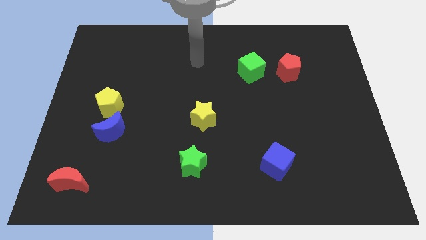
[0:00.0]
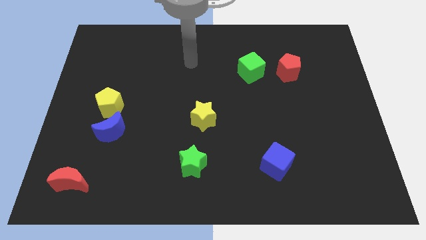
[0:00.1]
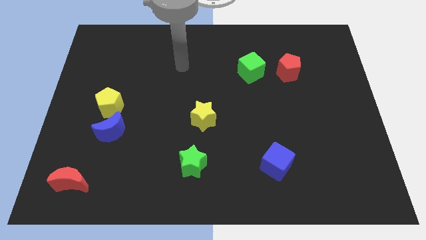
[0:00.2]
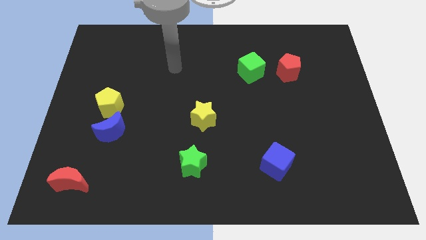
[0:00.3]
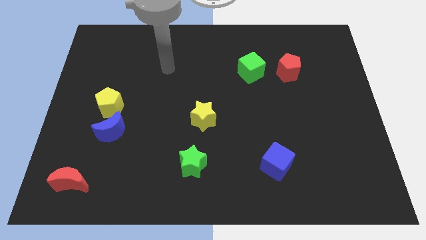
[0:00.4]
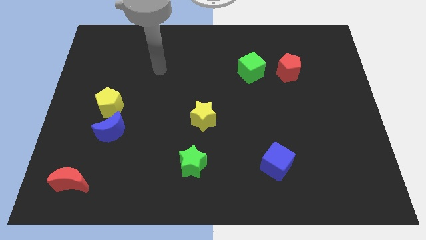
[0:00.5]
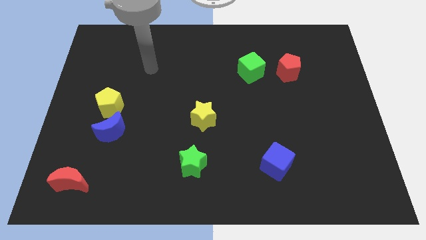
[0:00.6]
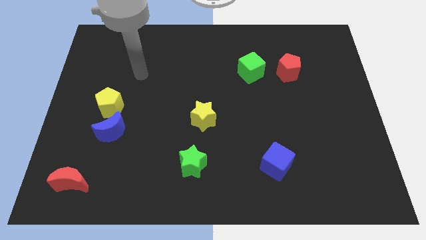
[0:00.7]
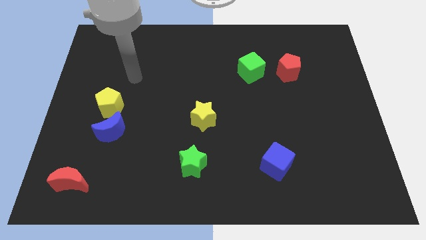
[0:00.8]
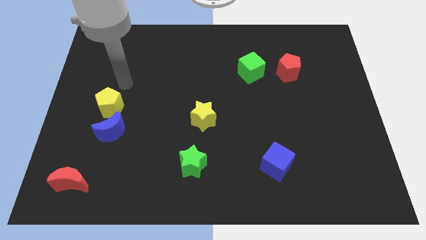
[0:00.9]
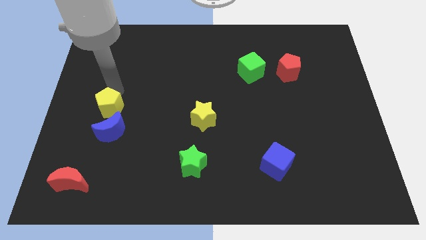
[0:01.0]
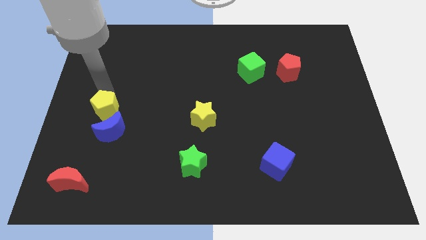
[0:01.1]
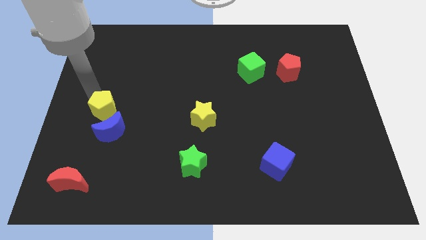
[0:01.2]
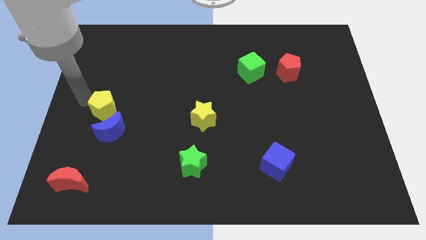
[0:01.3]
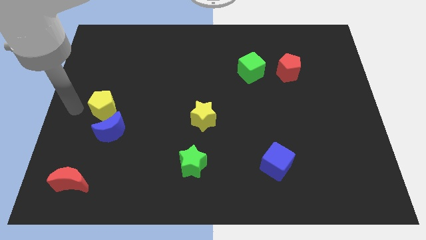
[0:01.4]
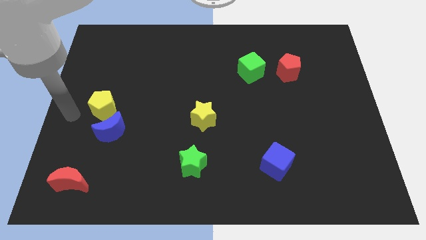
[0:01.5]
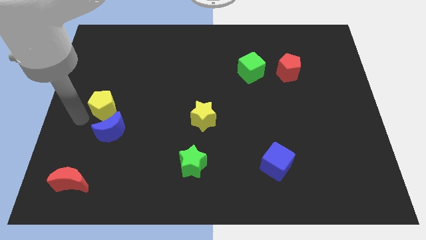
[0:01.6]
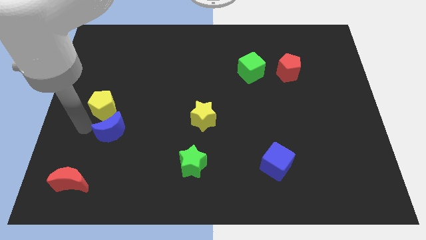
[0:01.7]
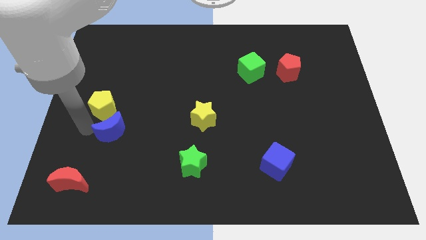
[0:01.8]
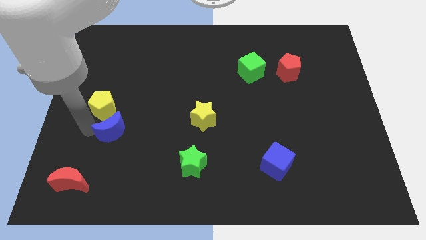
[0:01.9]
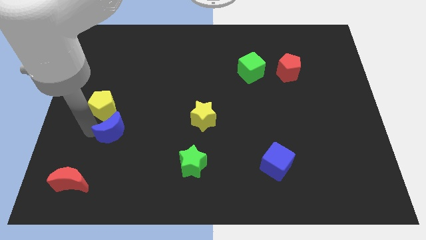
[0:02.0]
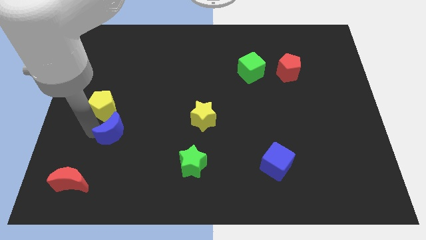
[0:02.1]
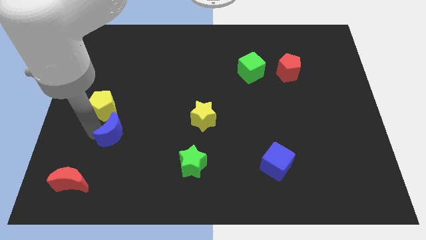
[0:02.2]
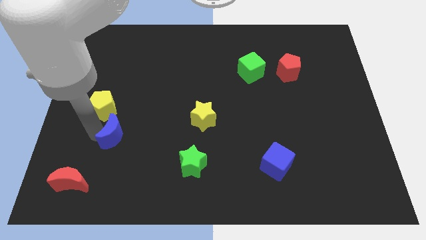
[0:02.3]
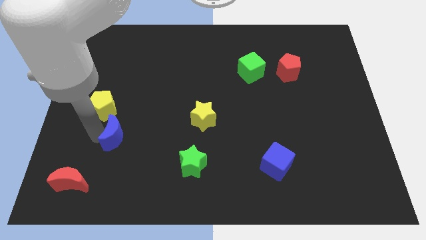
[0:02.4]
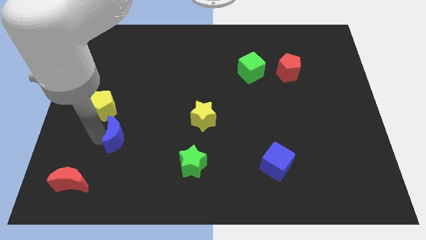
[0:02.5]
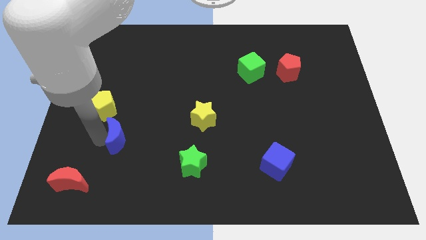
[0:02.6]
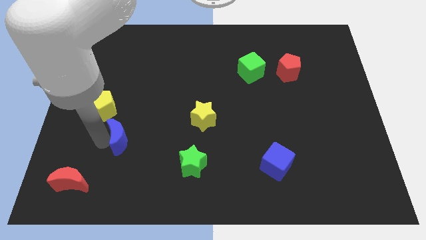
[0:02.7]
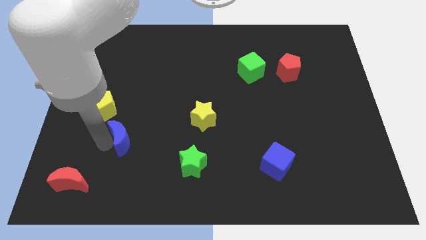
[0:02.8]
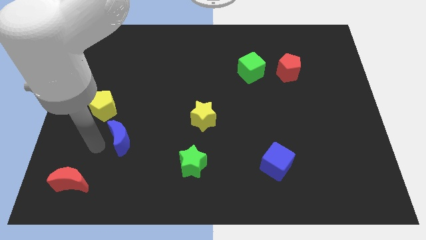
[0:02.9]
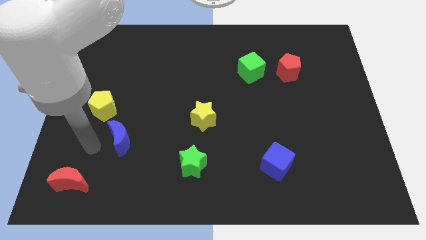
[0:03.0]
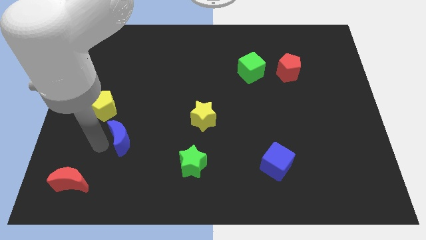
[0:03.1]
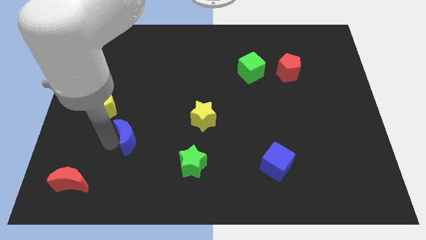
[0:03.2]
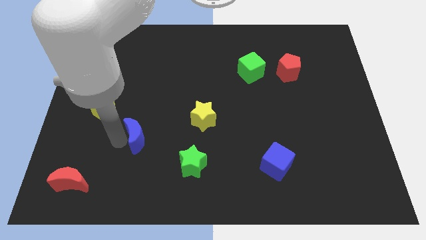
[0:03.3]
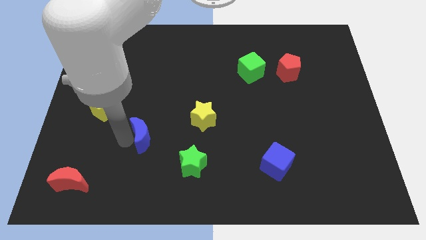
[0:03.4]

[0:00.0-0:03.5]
slide the blue moon right slightly

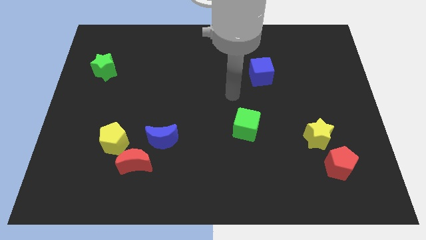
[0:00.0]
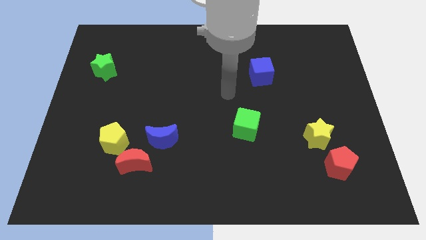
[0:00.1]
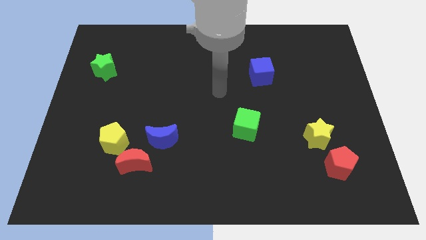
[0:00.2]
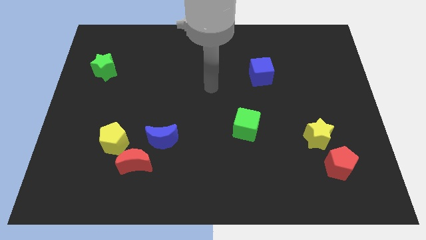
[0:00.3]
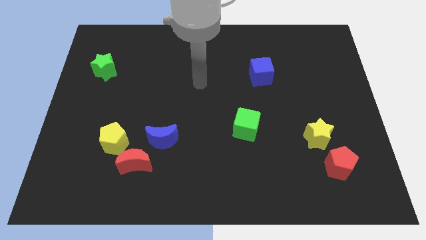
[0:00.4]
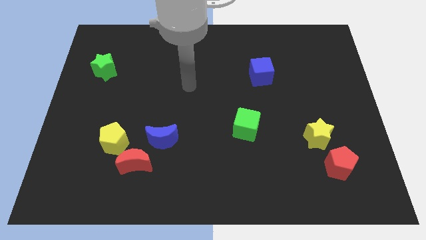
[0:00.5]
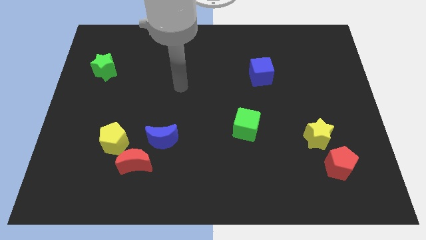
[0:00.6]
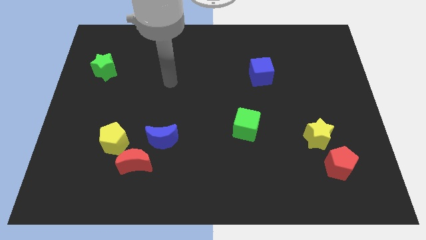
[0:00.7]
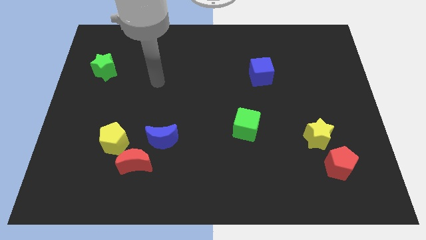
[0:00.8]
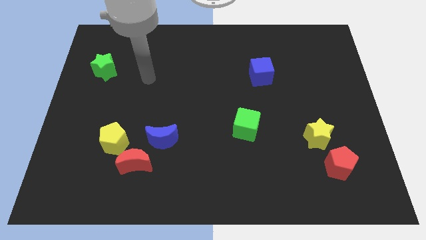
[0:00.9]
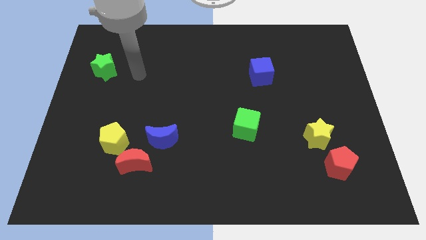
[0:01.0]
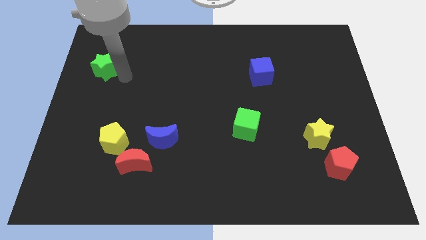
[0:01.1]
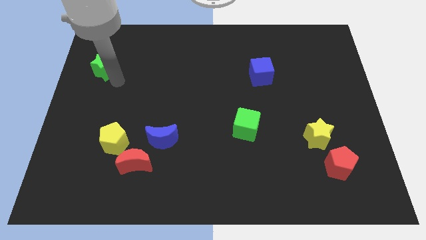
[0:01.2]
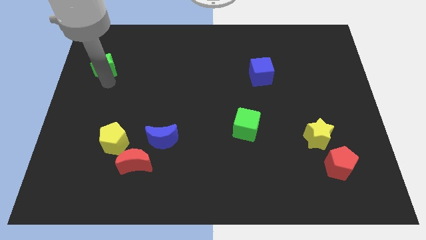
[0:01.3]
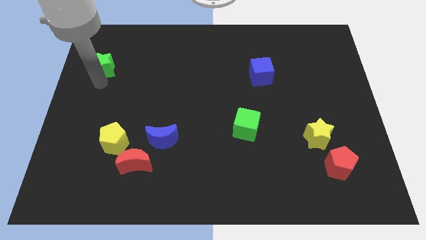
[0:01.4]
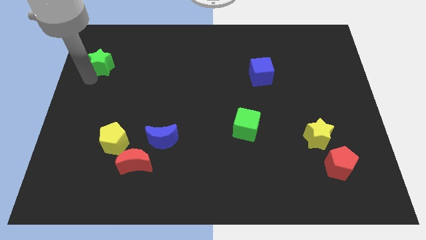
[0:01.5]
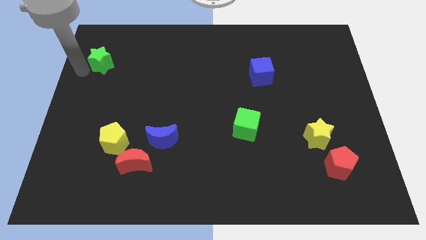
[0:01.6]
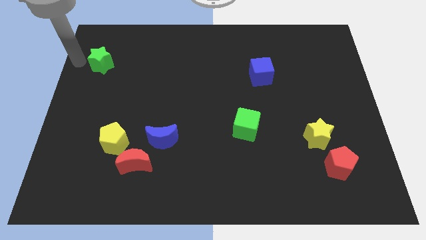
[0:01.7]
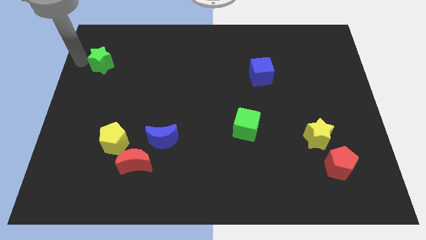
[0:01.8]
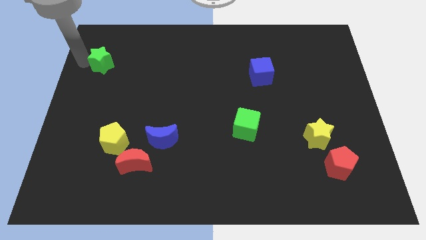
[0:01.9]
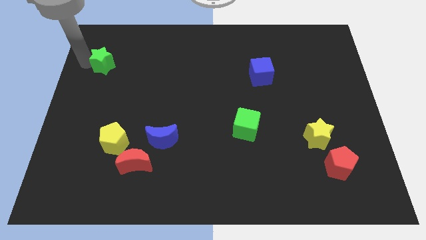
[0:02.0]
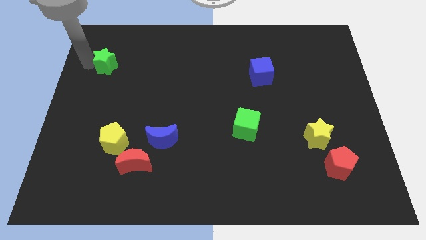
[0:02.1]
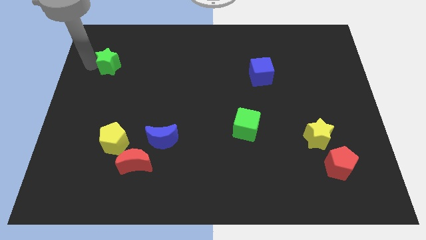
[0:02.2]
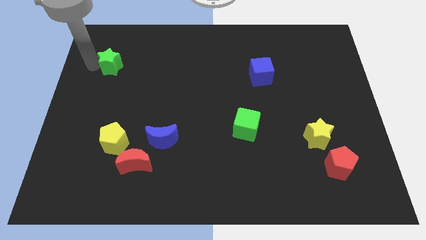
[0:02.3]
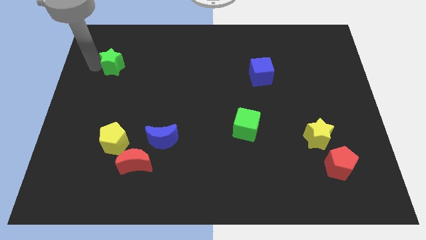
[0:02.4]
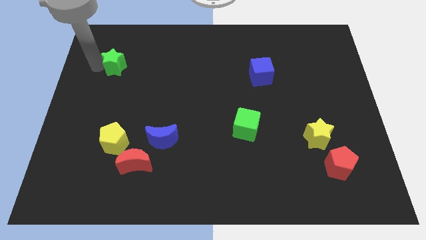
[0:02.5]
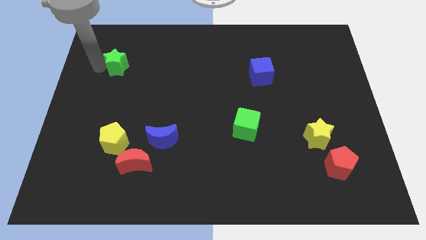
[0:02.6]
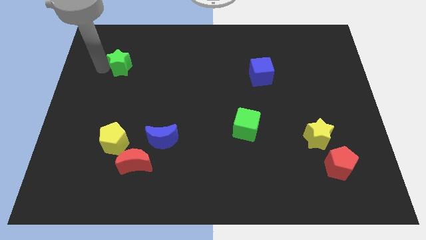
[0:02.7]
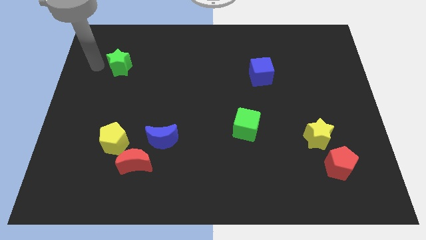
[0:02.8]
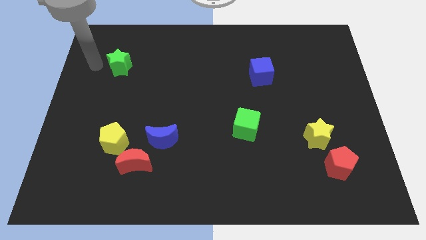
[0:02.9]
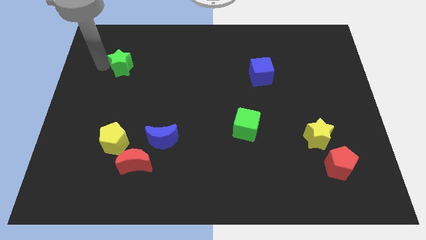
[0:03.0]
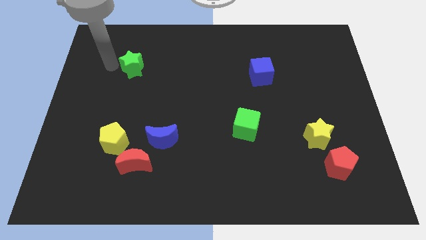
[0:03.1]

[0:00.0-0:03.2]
slightly move the green star right

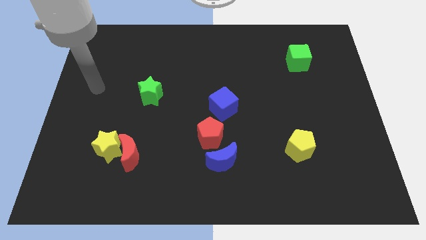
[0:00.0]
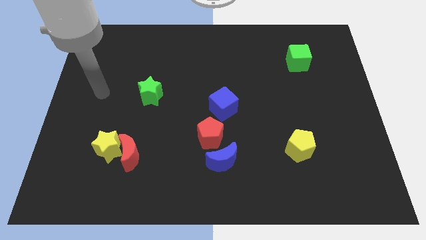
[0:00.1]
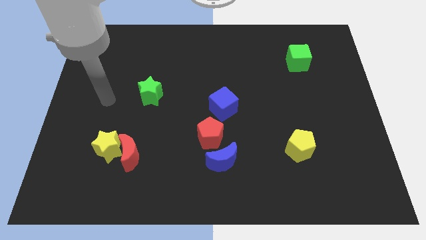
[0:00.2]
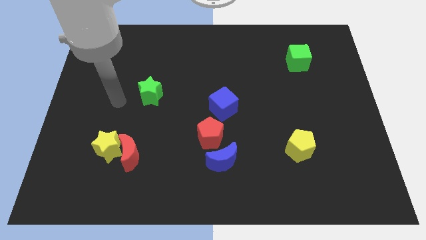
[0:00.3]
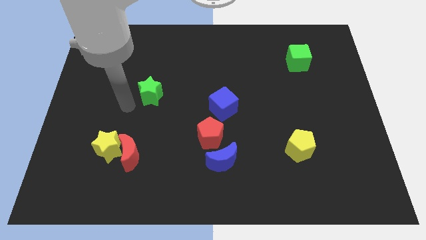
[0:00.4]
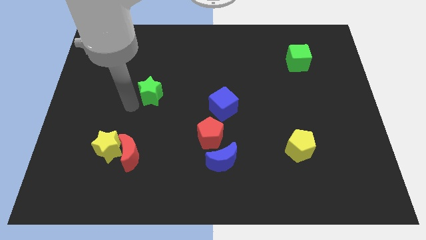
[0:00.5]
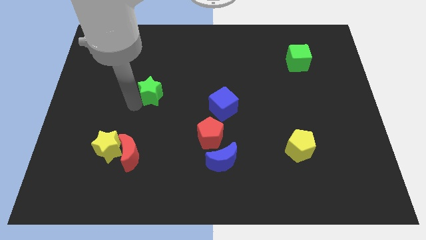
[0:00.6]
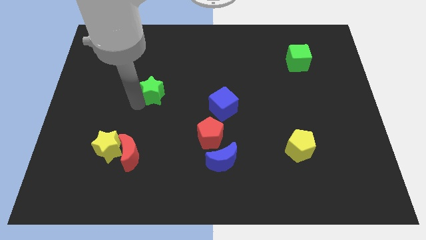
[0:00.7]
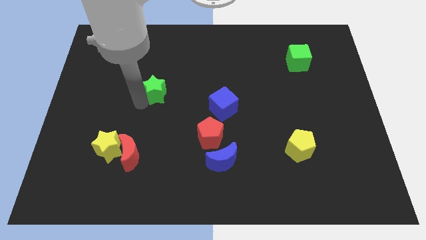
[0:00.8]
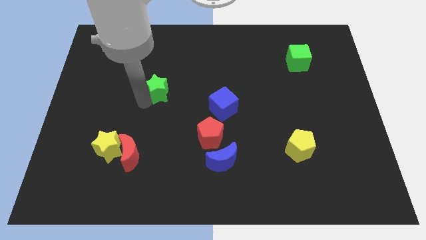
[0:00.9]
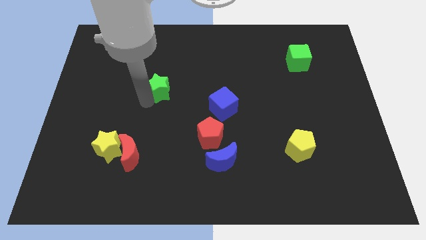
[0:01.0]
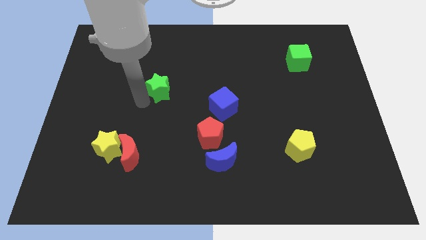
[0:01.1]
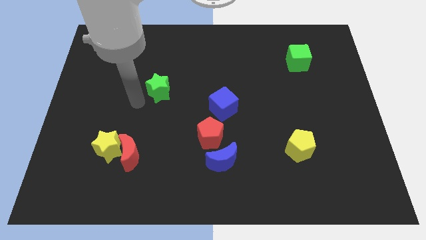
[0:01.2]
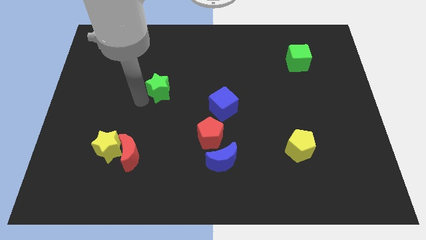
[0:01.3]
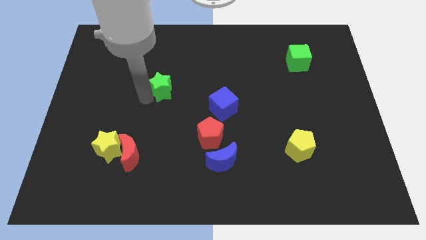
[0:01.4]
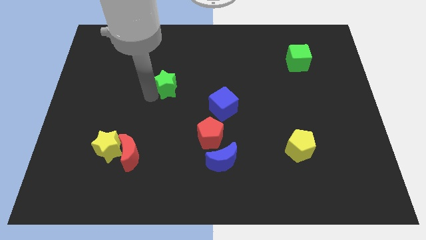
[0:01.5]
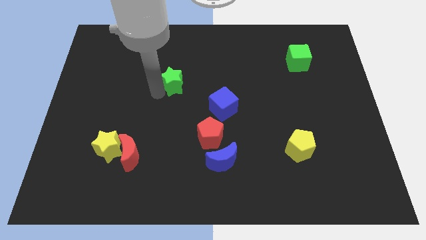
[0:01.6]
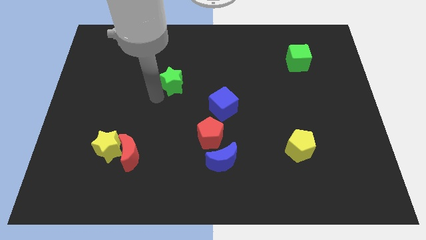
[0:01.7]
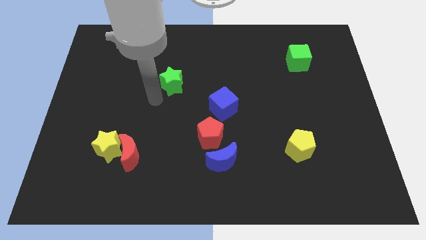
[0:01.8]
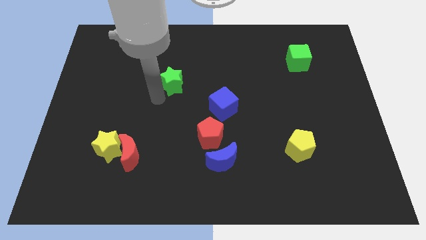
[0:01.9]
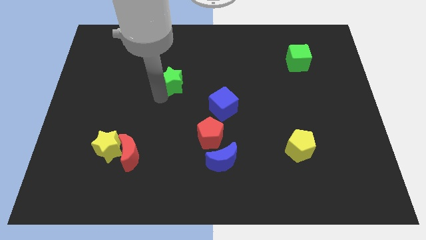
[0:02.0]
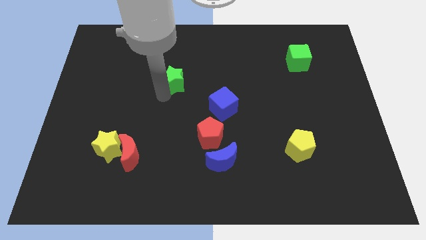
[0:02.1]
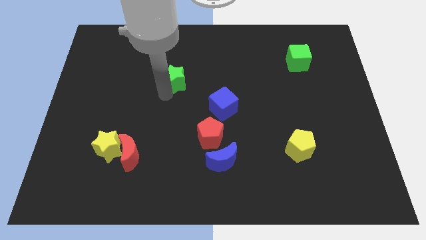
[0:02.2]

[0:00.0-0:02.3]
slide the green star slightly upwards and to the right diagonally
